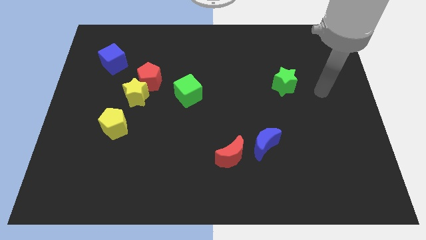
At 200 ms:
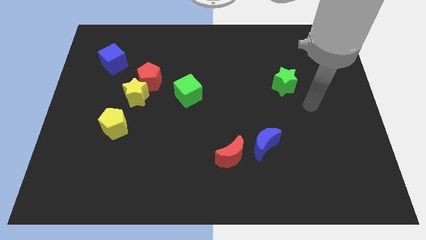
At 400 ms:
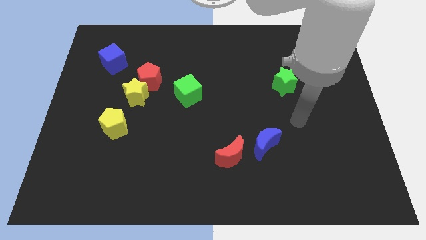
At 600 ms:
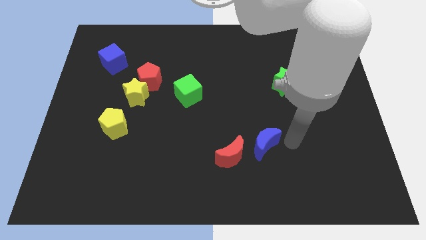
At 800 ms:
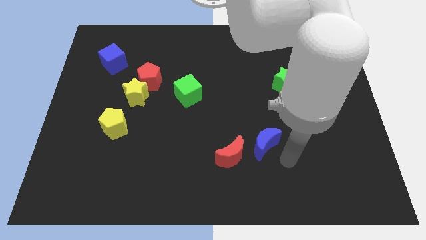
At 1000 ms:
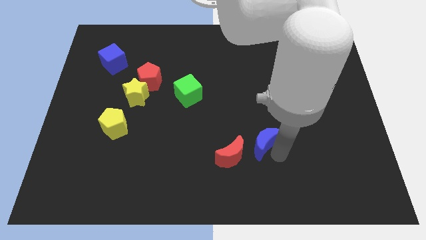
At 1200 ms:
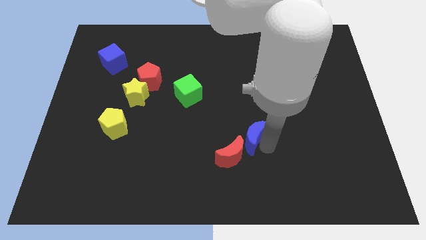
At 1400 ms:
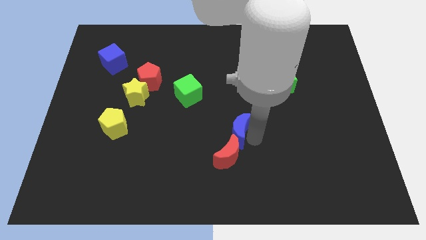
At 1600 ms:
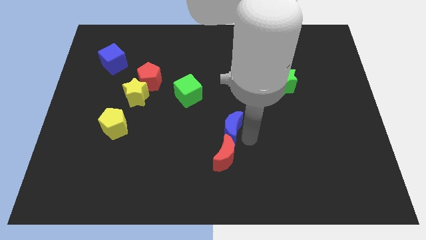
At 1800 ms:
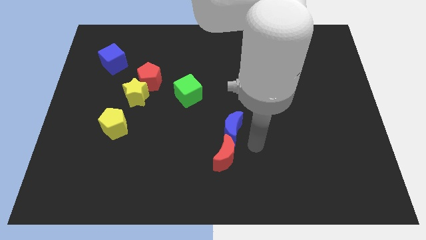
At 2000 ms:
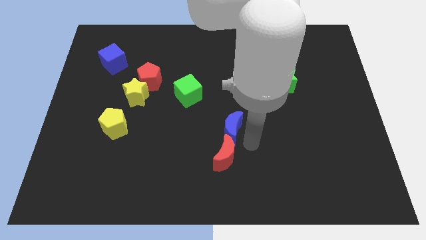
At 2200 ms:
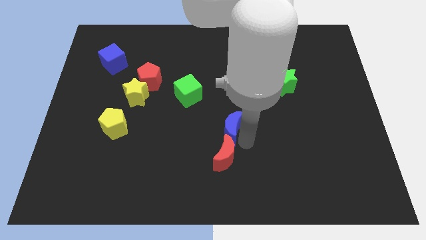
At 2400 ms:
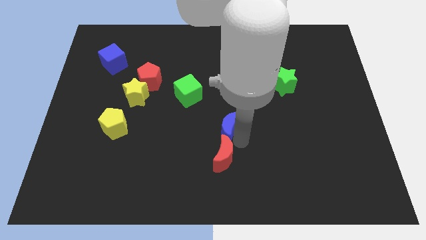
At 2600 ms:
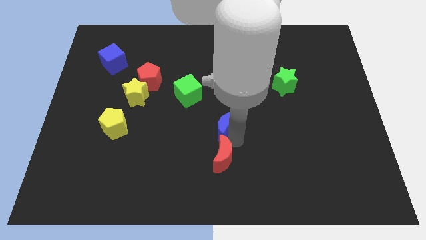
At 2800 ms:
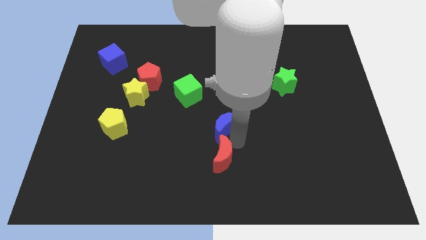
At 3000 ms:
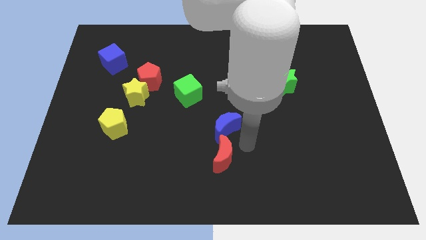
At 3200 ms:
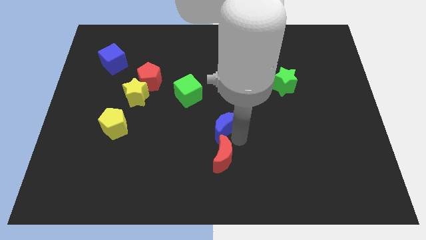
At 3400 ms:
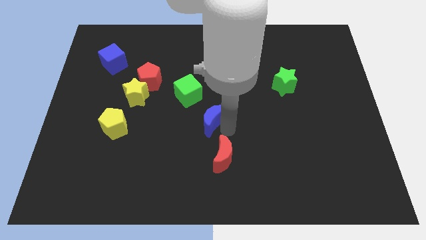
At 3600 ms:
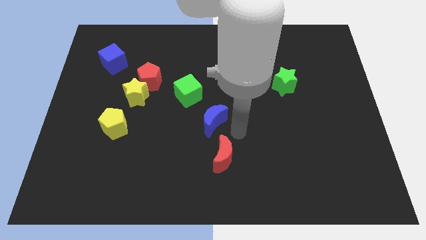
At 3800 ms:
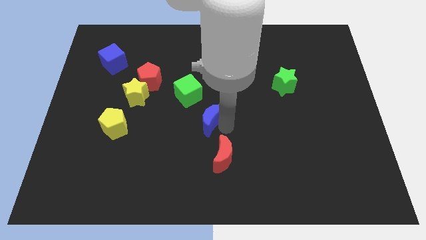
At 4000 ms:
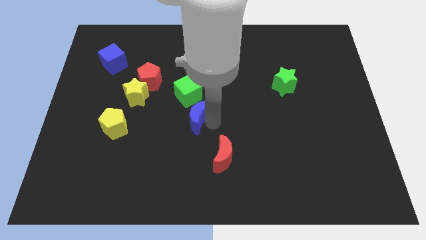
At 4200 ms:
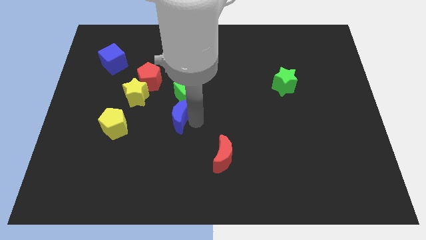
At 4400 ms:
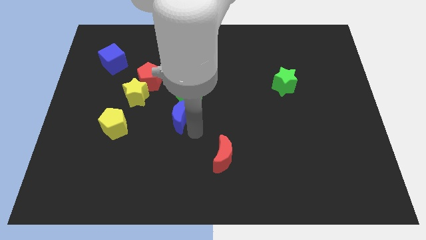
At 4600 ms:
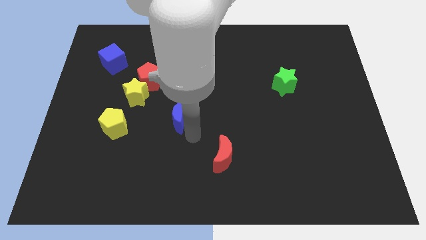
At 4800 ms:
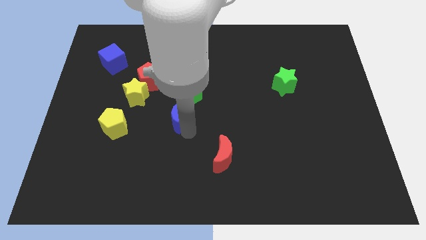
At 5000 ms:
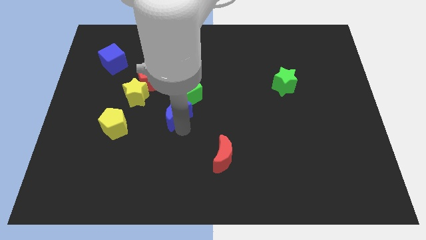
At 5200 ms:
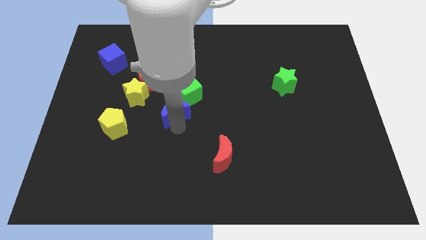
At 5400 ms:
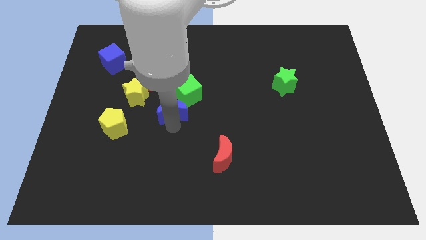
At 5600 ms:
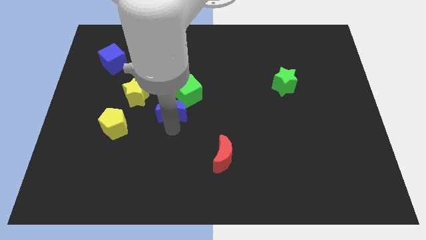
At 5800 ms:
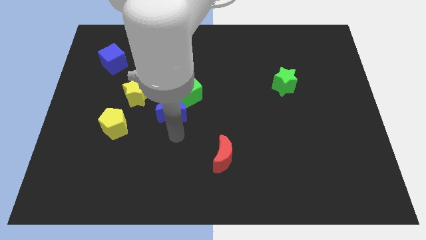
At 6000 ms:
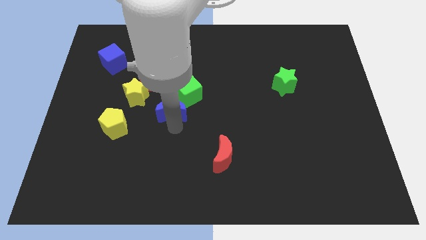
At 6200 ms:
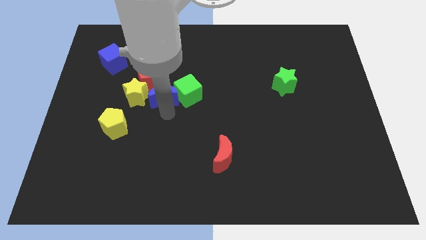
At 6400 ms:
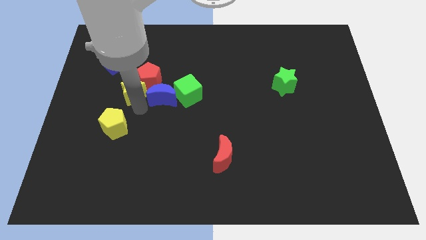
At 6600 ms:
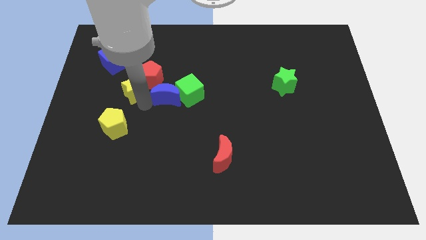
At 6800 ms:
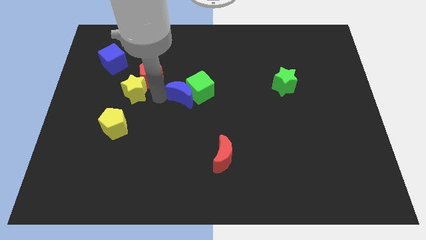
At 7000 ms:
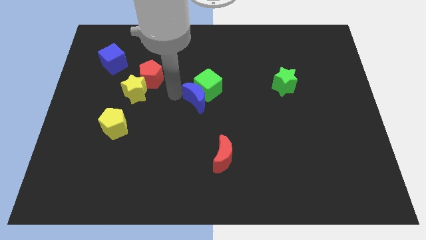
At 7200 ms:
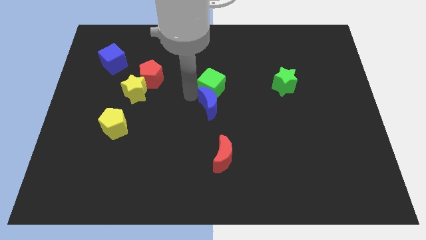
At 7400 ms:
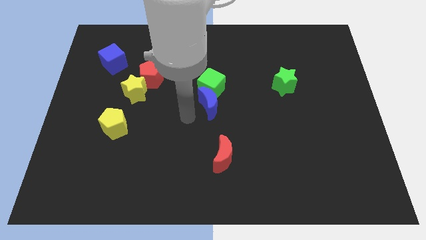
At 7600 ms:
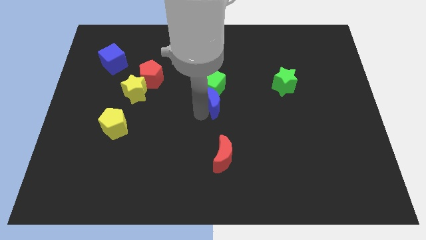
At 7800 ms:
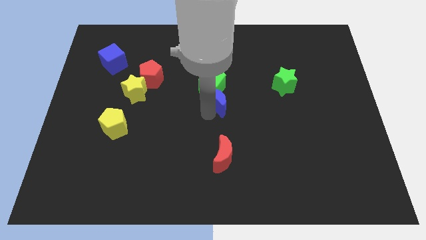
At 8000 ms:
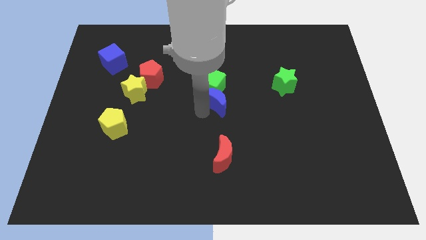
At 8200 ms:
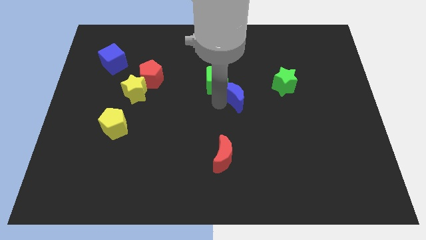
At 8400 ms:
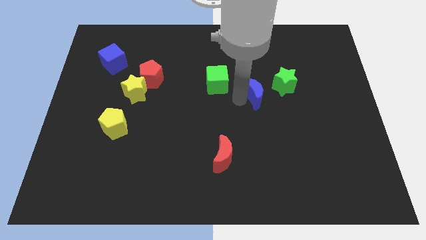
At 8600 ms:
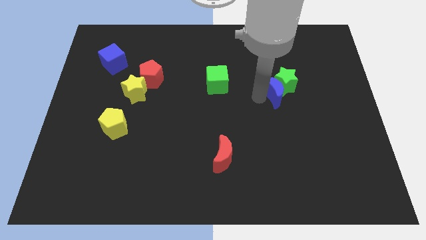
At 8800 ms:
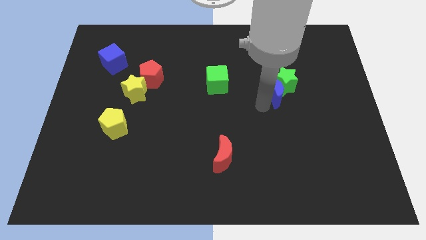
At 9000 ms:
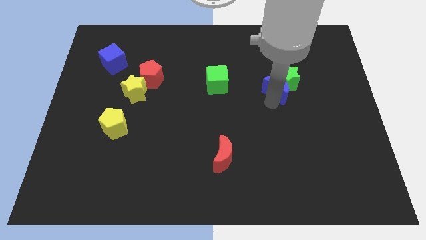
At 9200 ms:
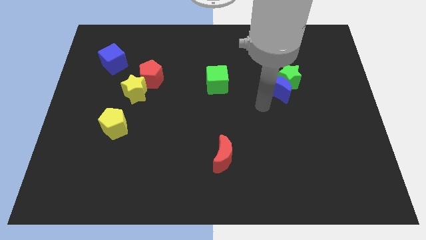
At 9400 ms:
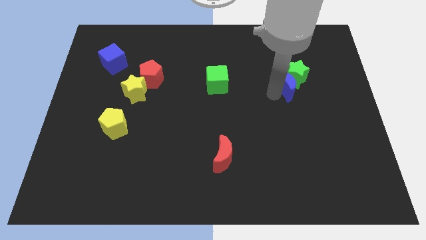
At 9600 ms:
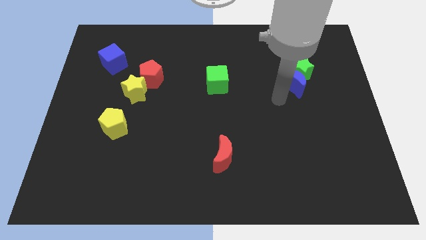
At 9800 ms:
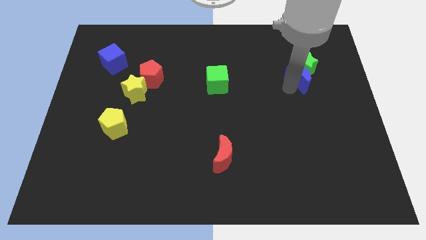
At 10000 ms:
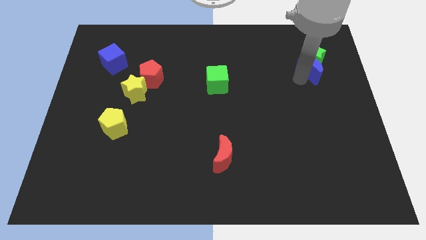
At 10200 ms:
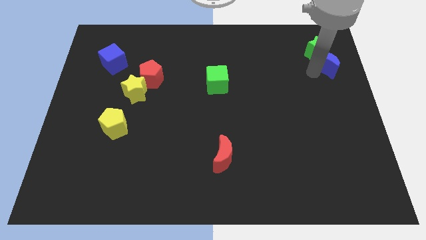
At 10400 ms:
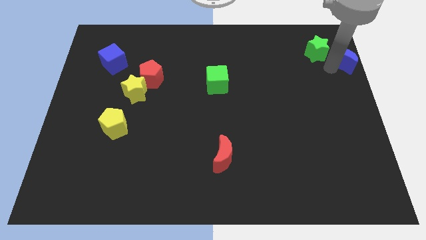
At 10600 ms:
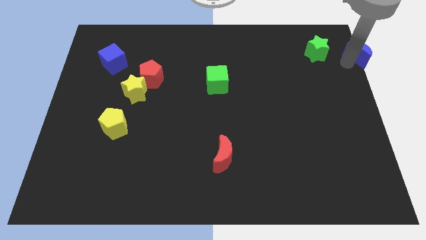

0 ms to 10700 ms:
push the blue moon to the top right corner

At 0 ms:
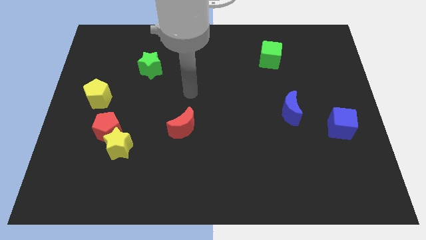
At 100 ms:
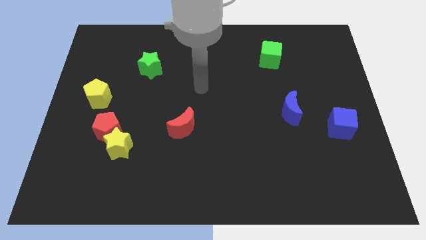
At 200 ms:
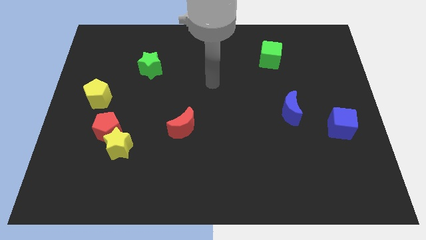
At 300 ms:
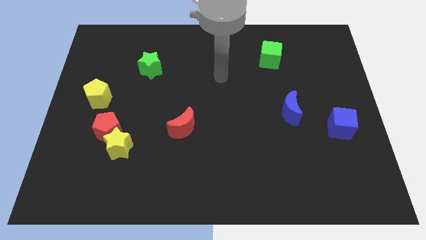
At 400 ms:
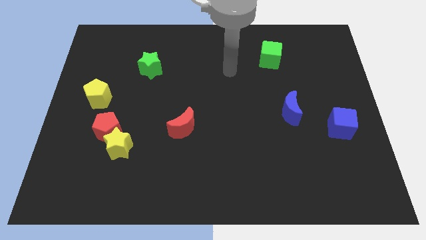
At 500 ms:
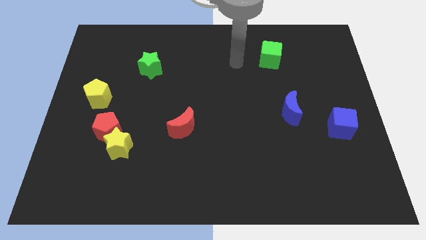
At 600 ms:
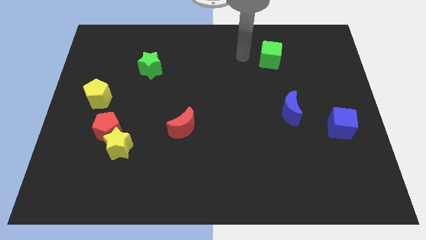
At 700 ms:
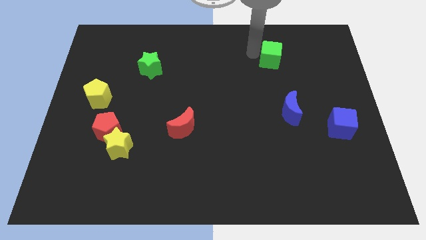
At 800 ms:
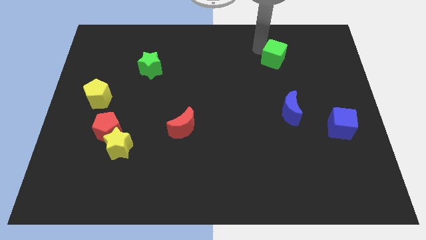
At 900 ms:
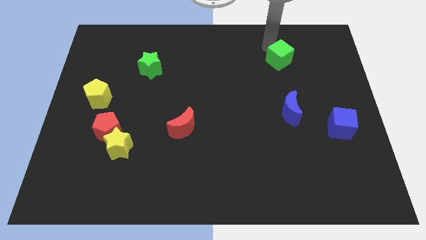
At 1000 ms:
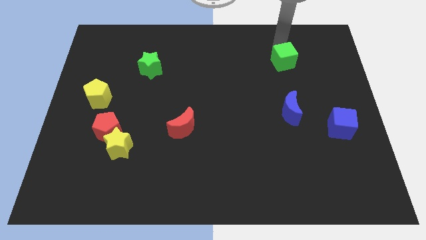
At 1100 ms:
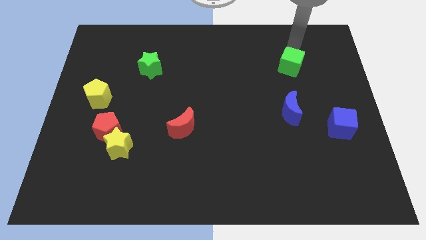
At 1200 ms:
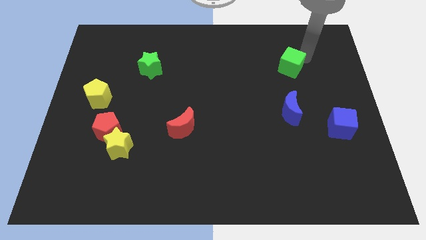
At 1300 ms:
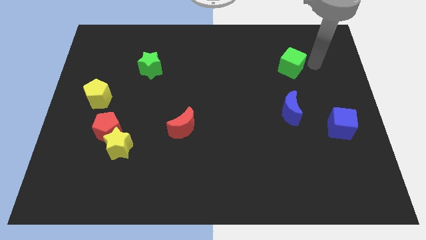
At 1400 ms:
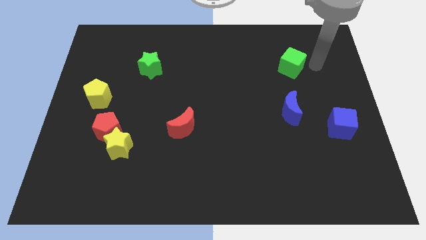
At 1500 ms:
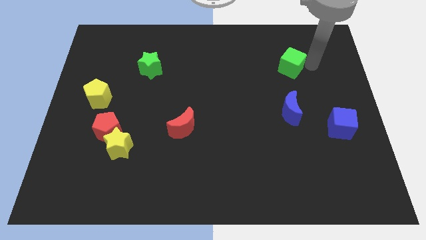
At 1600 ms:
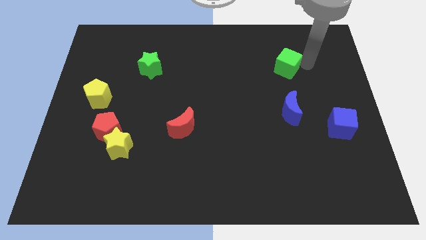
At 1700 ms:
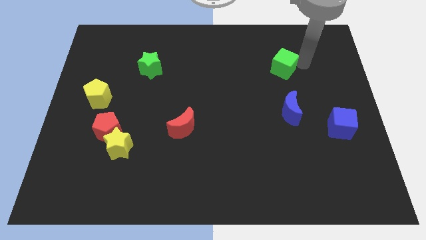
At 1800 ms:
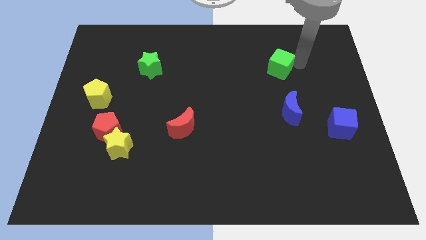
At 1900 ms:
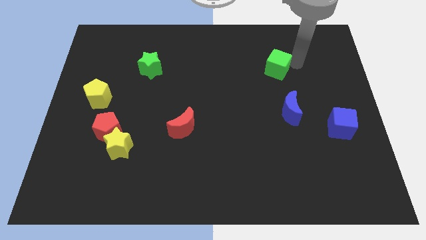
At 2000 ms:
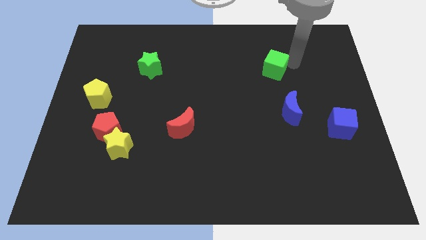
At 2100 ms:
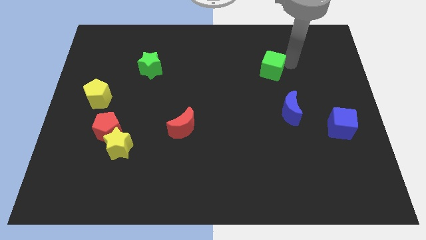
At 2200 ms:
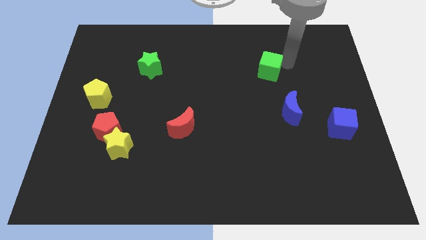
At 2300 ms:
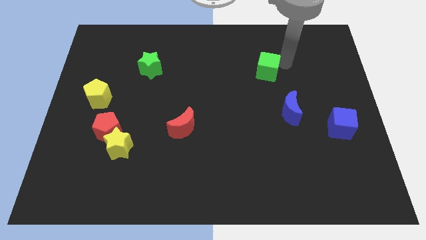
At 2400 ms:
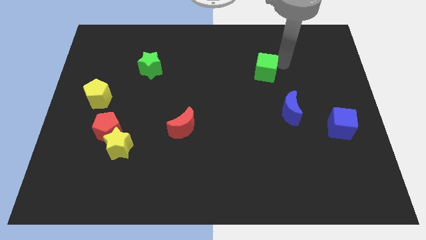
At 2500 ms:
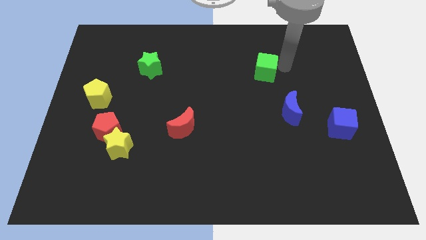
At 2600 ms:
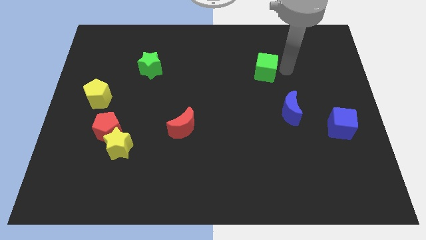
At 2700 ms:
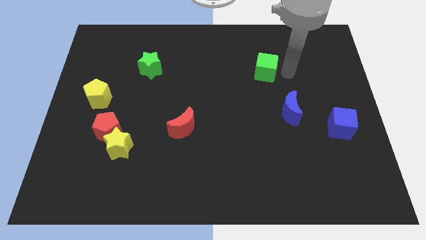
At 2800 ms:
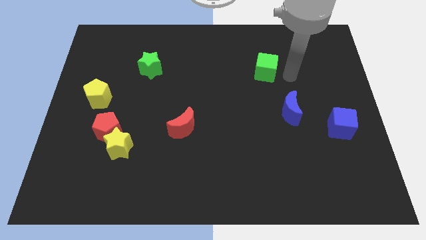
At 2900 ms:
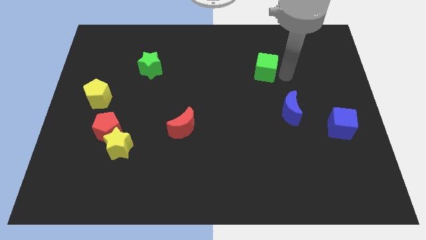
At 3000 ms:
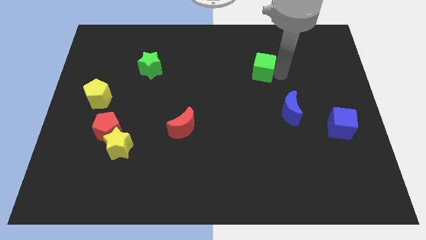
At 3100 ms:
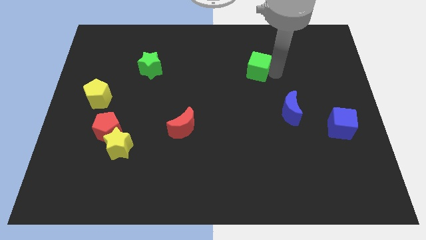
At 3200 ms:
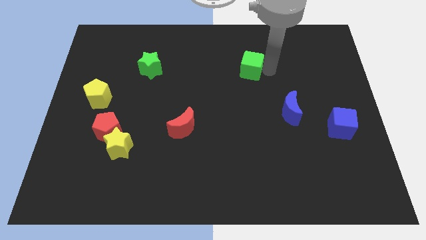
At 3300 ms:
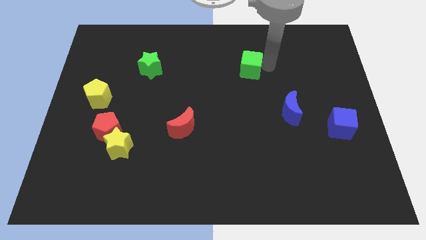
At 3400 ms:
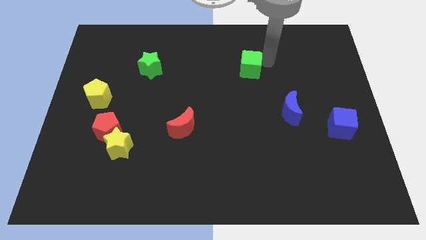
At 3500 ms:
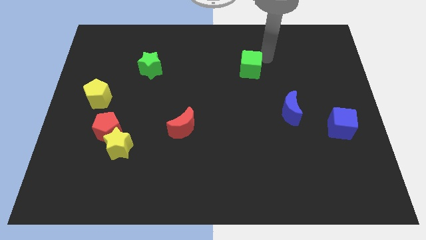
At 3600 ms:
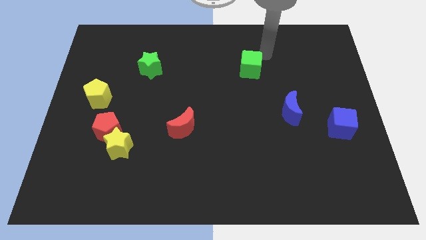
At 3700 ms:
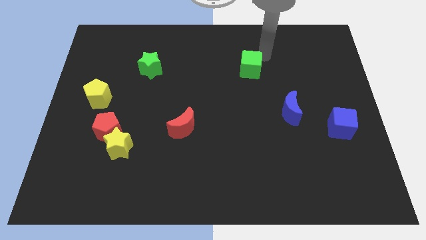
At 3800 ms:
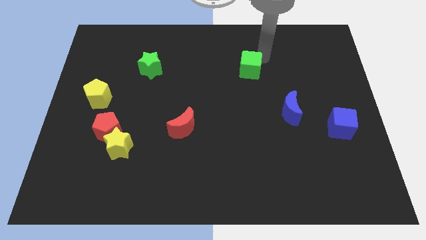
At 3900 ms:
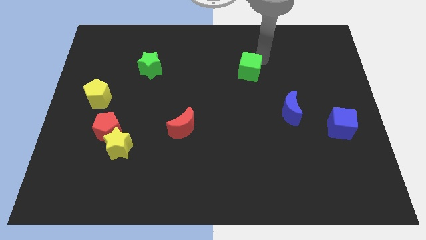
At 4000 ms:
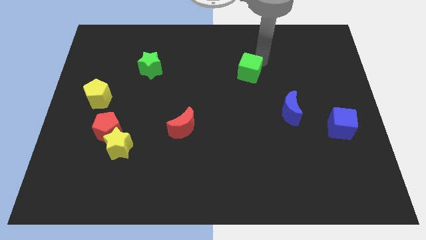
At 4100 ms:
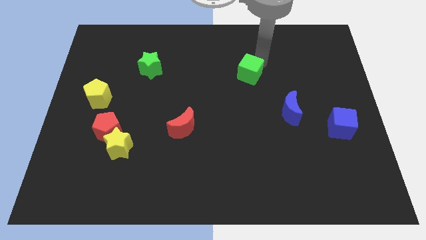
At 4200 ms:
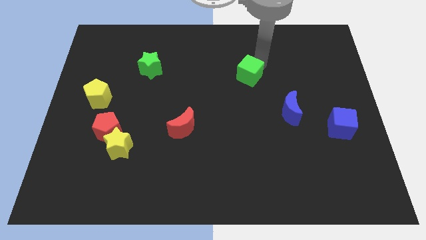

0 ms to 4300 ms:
move the green cube to the center of the board
